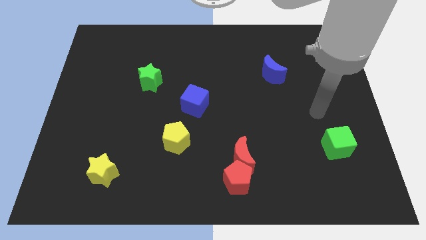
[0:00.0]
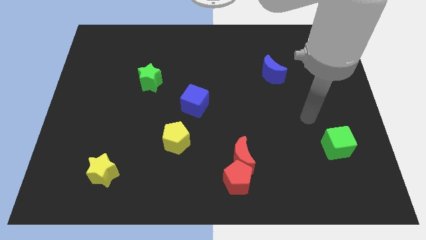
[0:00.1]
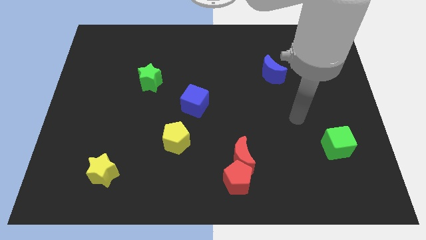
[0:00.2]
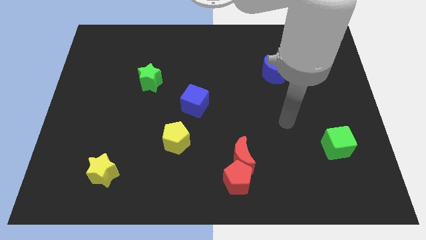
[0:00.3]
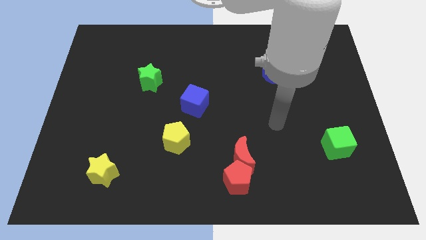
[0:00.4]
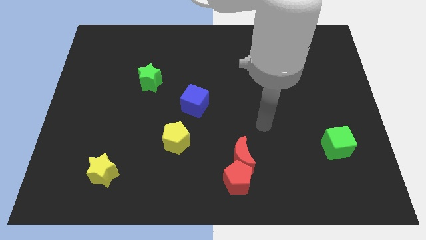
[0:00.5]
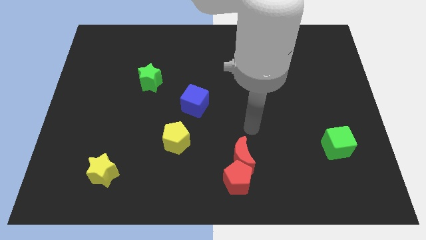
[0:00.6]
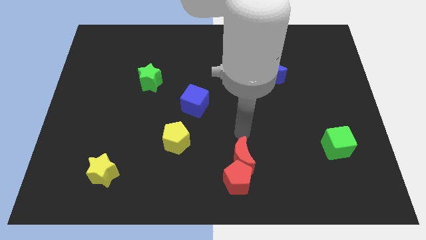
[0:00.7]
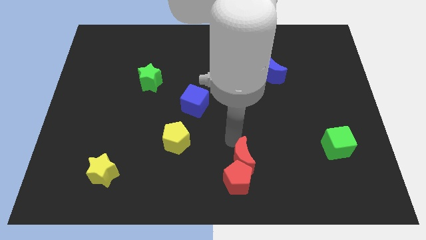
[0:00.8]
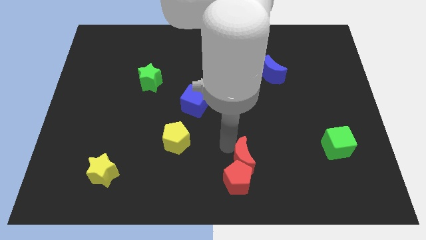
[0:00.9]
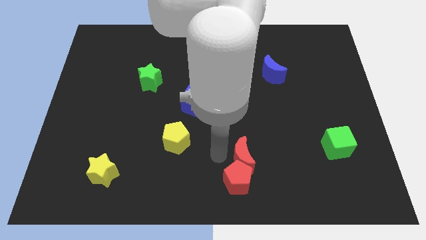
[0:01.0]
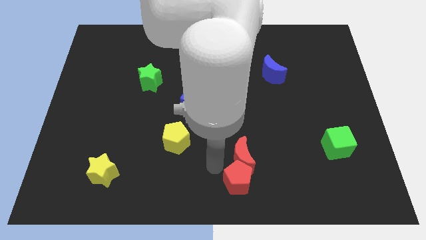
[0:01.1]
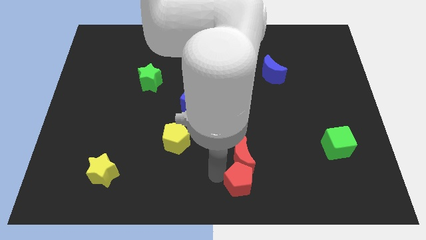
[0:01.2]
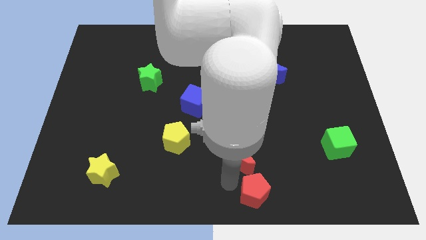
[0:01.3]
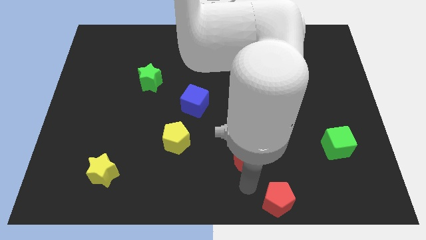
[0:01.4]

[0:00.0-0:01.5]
pull the red moon apart from the red pentagon

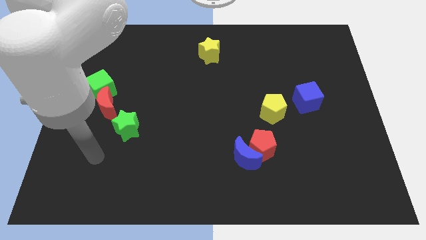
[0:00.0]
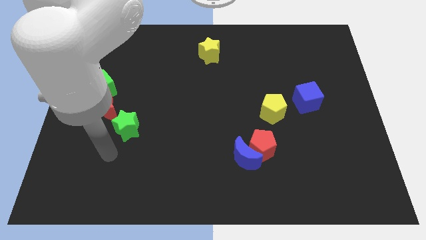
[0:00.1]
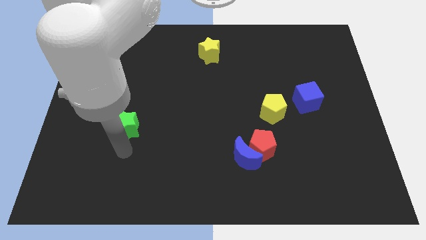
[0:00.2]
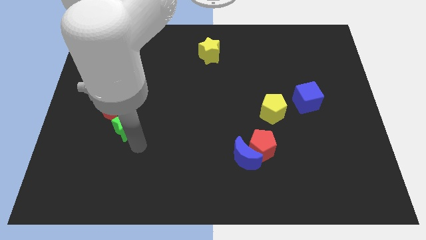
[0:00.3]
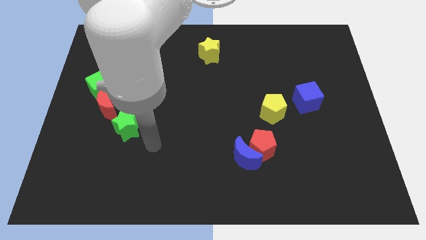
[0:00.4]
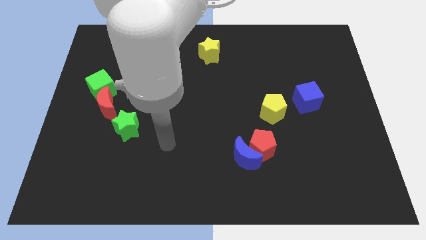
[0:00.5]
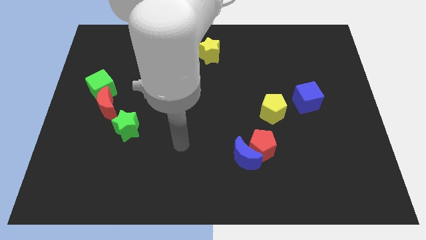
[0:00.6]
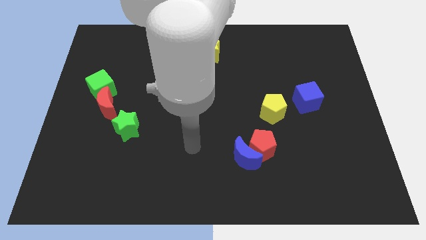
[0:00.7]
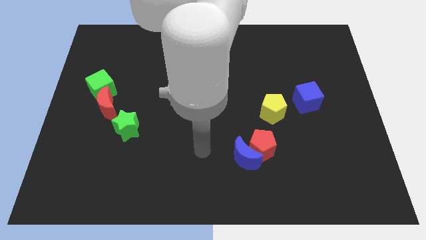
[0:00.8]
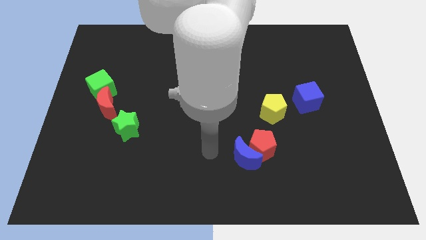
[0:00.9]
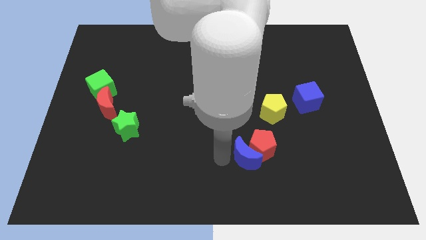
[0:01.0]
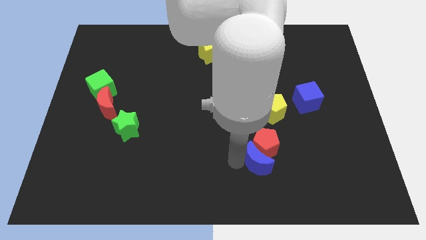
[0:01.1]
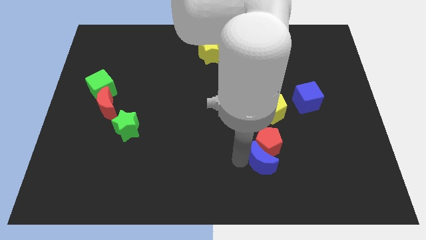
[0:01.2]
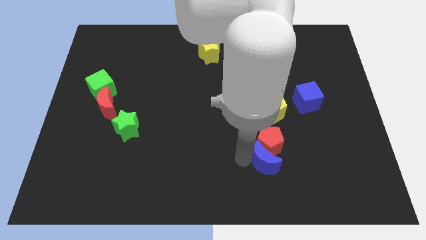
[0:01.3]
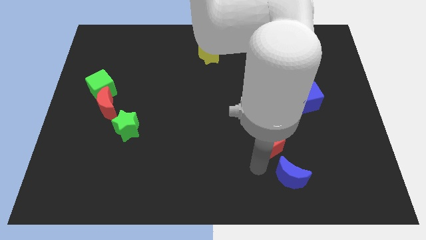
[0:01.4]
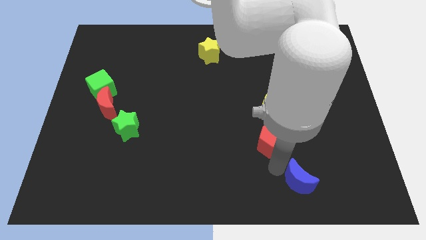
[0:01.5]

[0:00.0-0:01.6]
separate the red pentagon from the blue moon

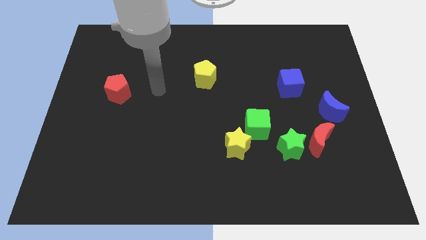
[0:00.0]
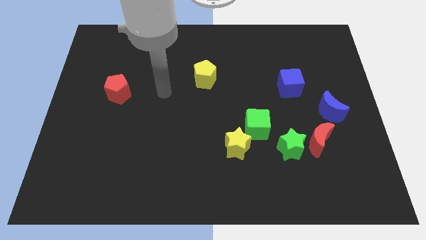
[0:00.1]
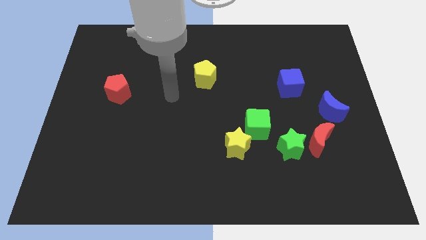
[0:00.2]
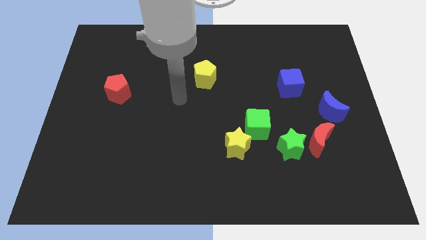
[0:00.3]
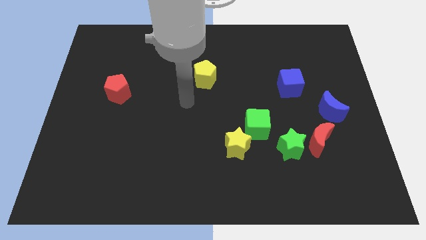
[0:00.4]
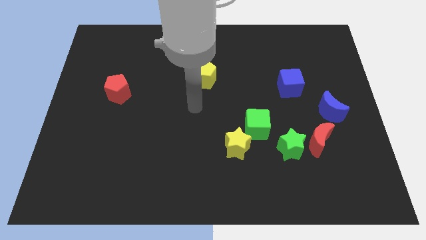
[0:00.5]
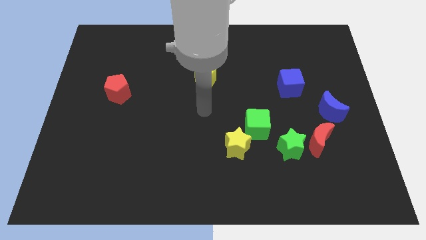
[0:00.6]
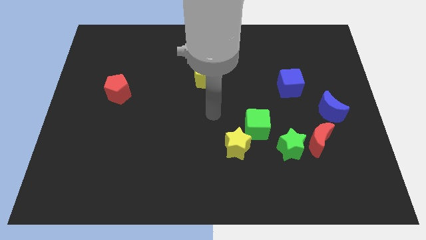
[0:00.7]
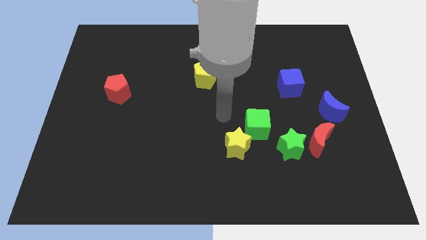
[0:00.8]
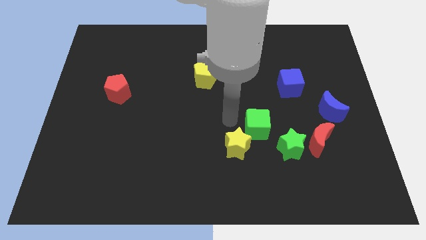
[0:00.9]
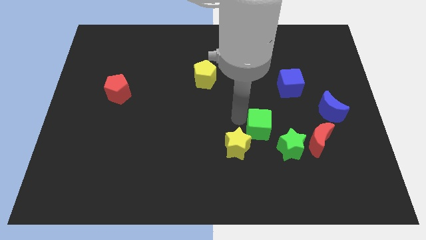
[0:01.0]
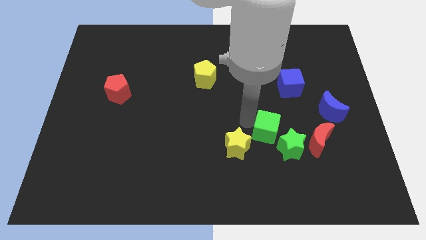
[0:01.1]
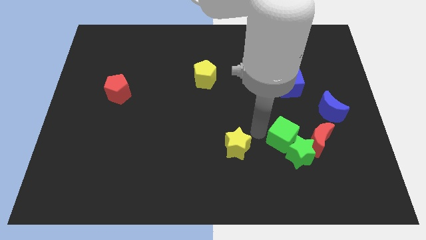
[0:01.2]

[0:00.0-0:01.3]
separate the yellow star from the green cube

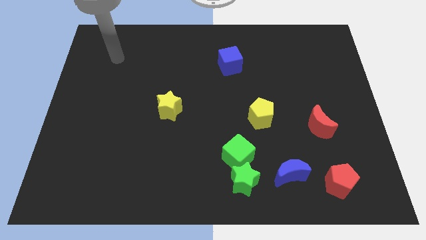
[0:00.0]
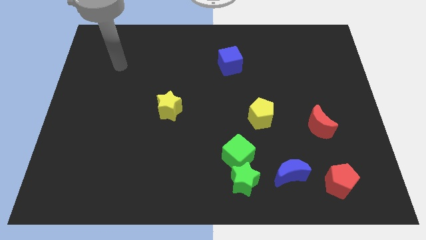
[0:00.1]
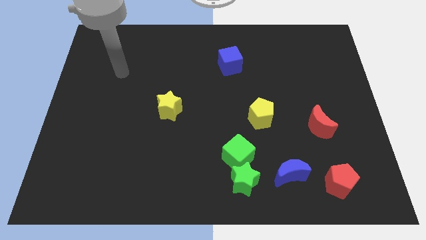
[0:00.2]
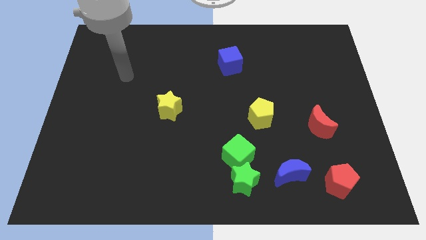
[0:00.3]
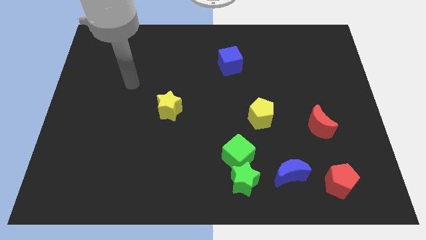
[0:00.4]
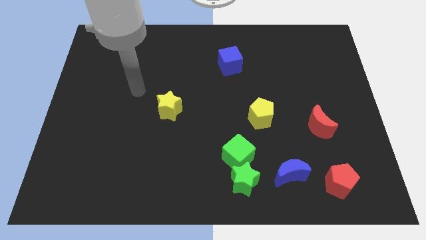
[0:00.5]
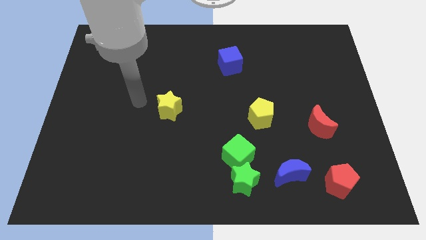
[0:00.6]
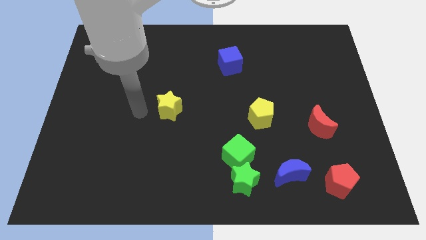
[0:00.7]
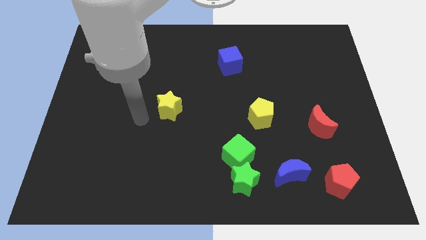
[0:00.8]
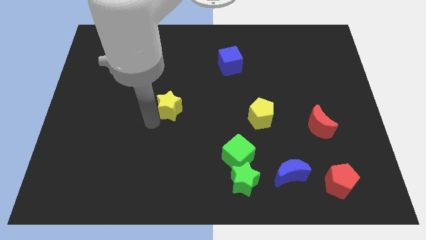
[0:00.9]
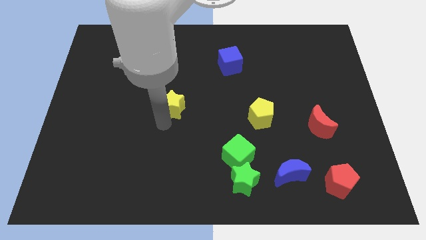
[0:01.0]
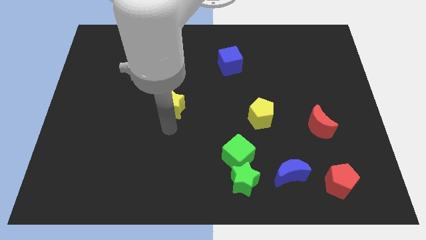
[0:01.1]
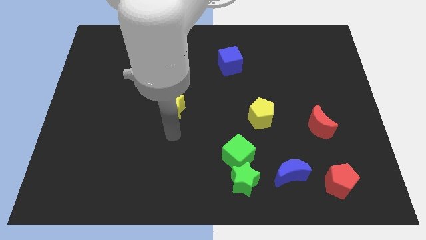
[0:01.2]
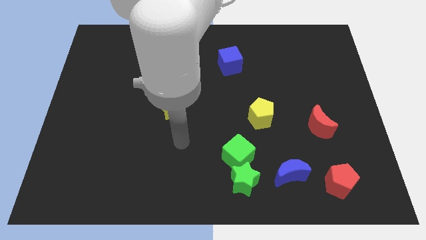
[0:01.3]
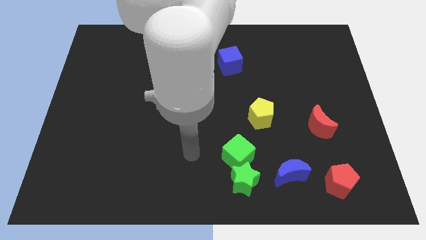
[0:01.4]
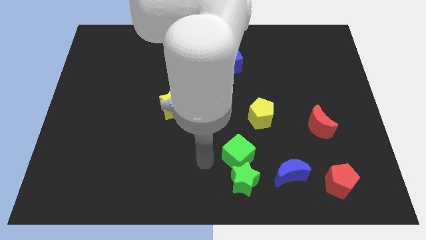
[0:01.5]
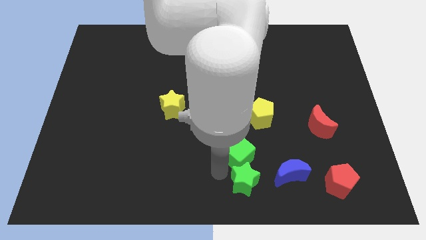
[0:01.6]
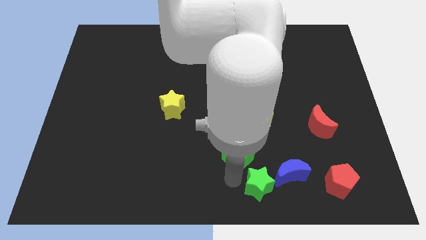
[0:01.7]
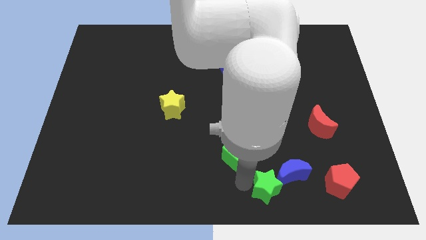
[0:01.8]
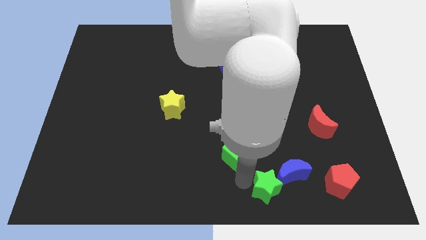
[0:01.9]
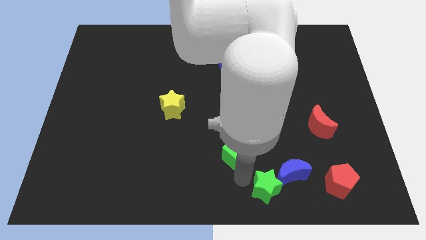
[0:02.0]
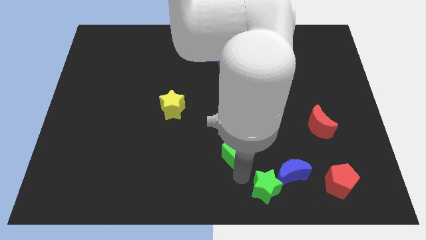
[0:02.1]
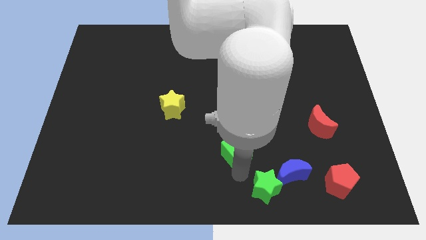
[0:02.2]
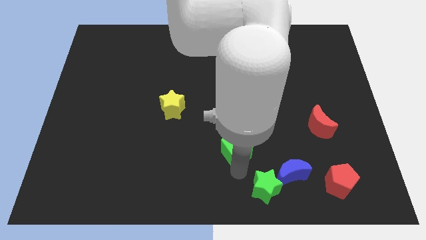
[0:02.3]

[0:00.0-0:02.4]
separate the green cube from the green star

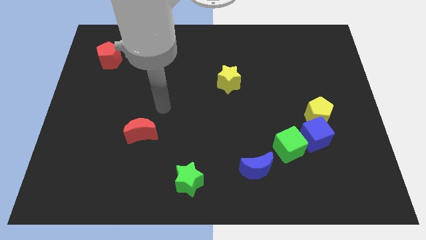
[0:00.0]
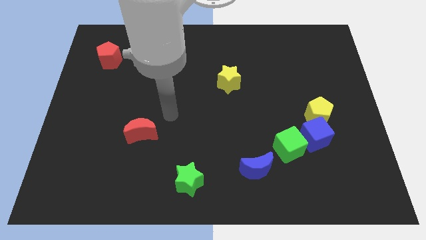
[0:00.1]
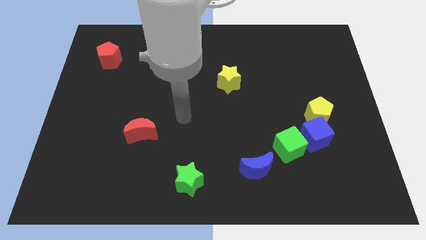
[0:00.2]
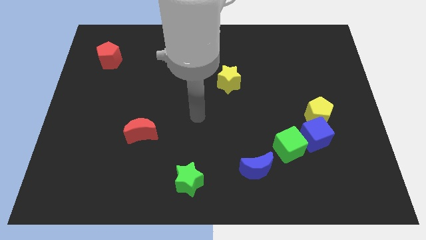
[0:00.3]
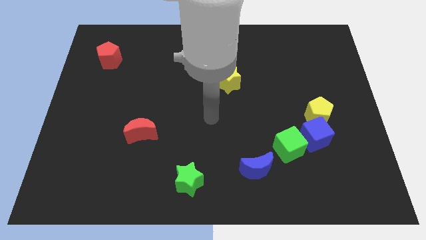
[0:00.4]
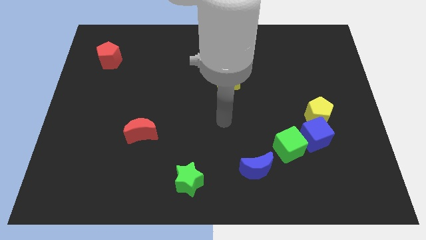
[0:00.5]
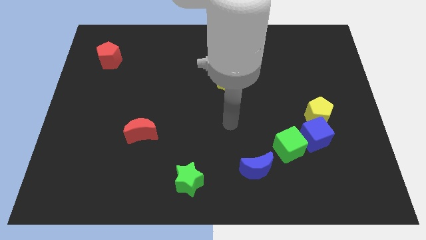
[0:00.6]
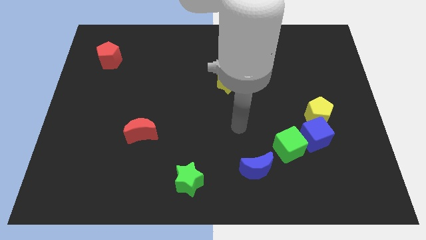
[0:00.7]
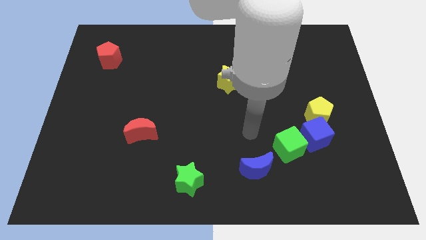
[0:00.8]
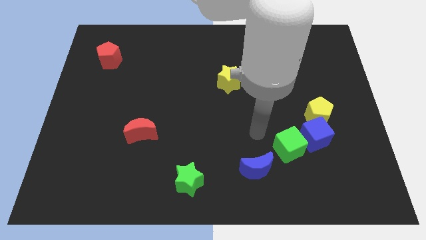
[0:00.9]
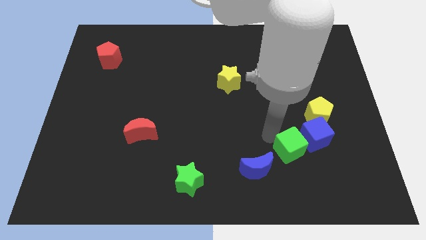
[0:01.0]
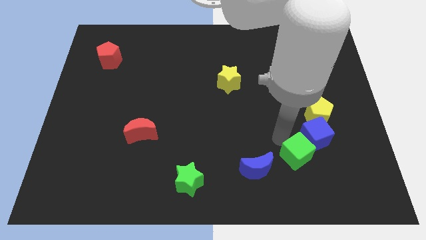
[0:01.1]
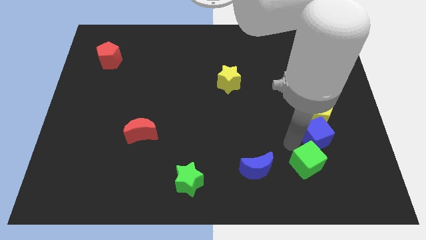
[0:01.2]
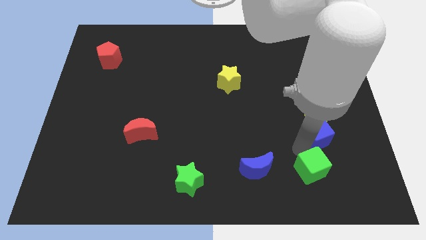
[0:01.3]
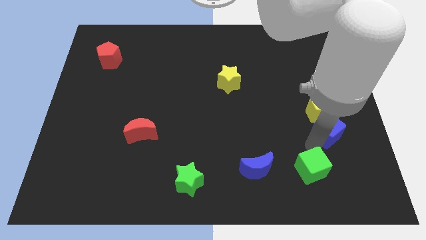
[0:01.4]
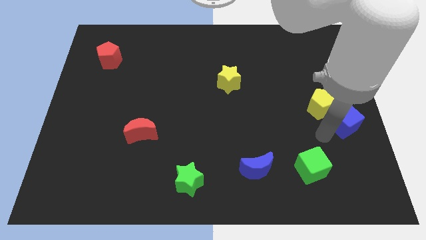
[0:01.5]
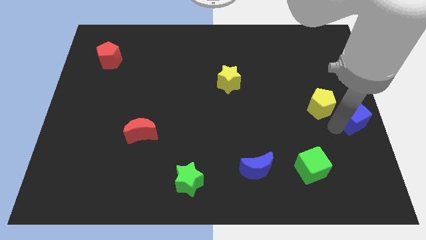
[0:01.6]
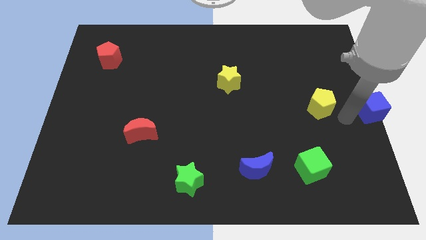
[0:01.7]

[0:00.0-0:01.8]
pull the yellow pentagon apart from the blue cube

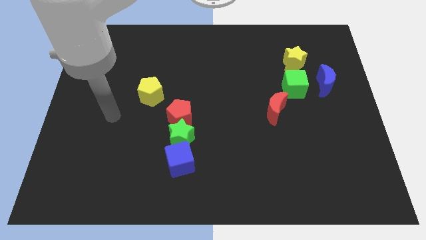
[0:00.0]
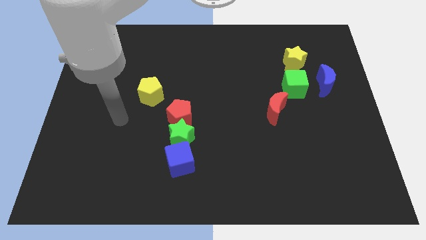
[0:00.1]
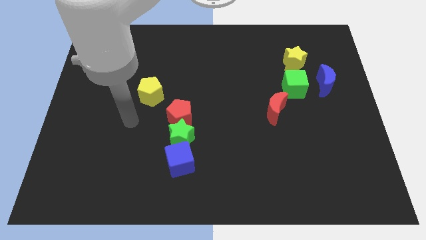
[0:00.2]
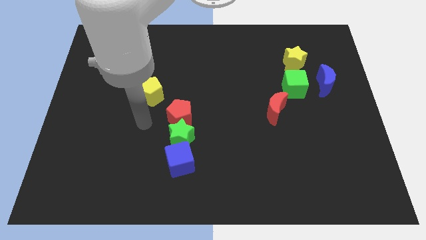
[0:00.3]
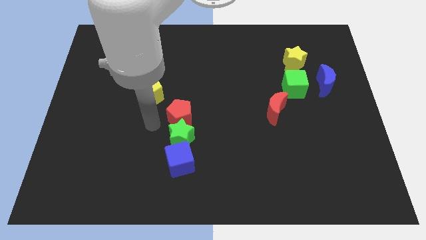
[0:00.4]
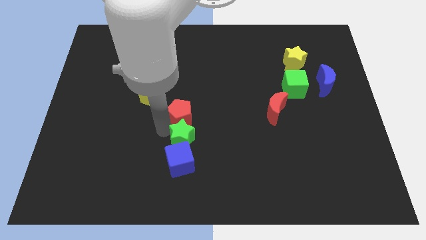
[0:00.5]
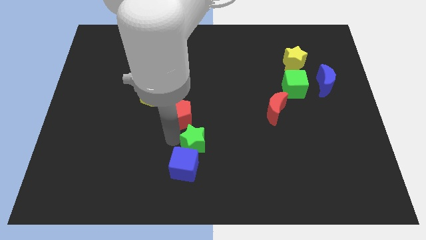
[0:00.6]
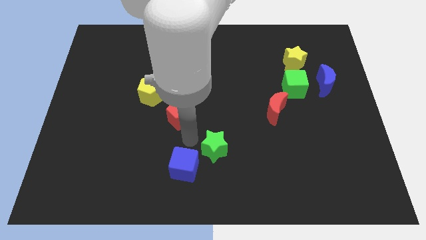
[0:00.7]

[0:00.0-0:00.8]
separate the red pentagon from the green star
